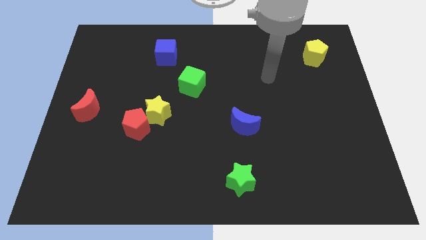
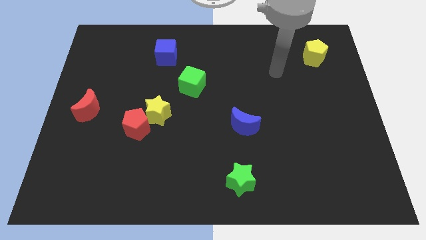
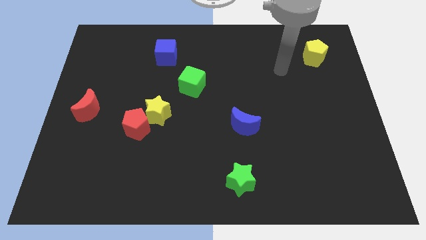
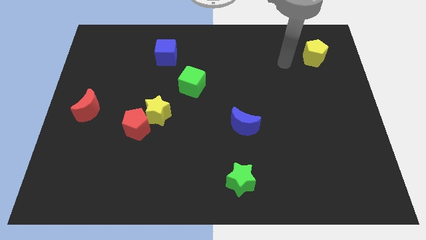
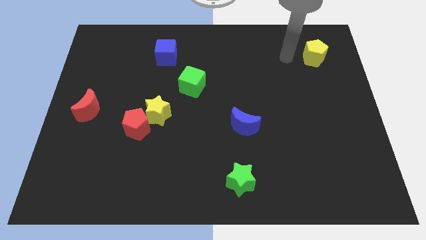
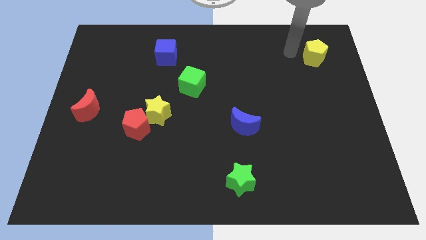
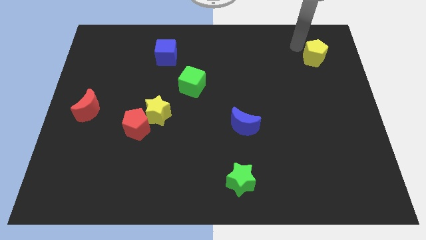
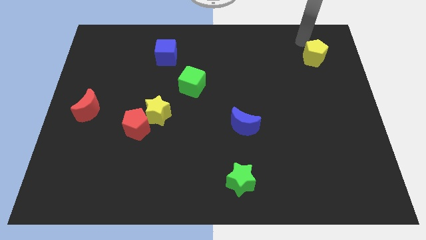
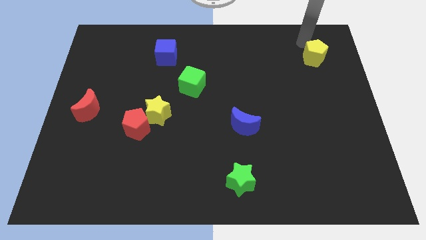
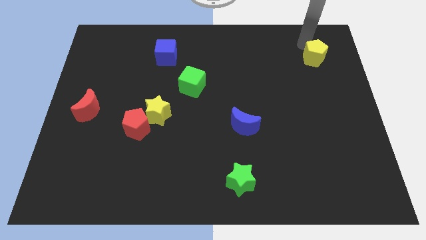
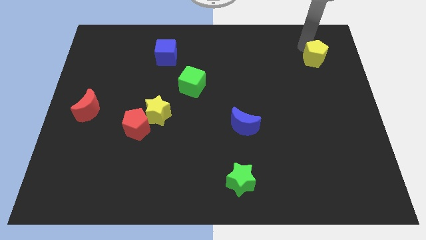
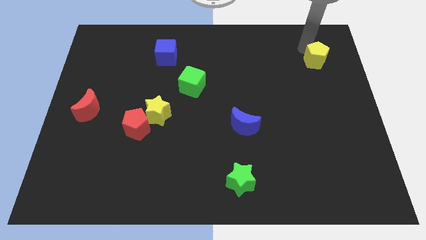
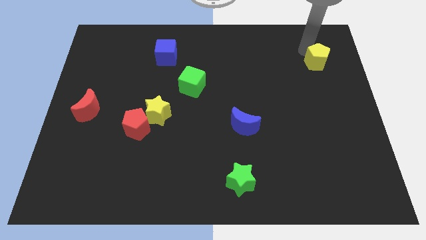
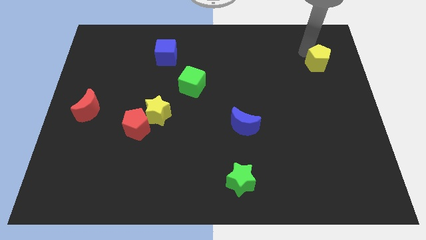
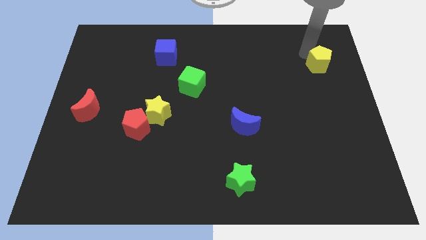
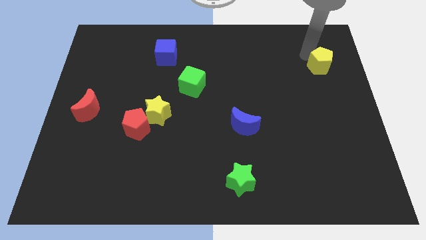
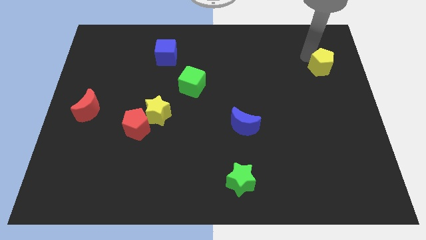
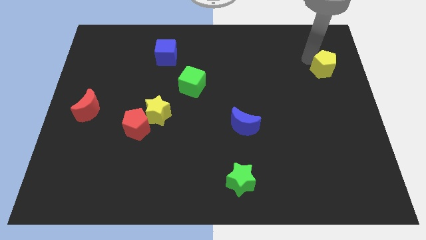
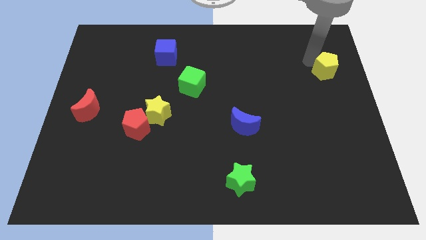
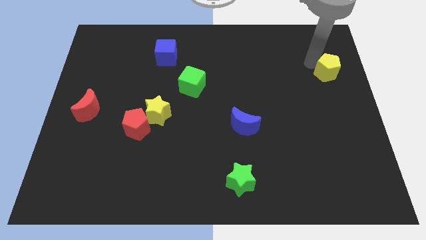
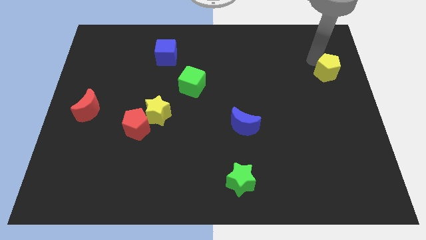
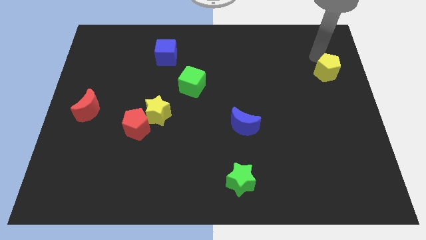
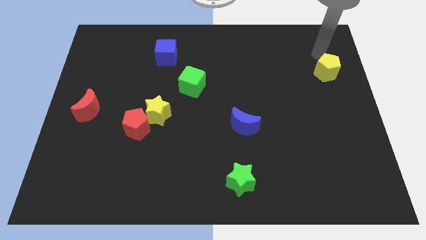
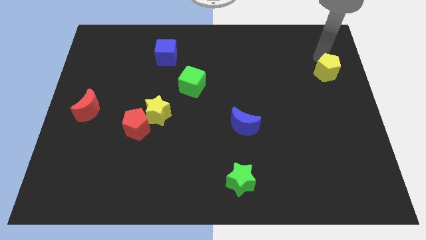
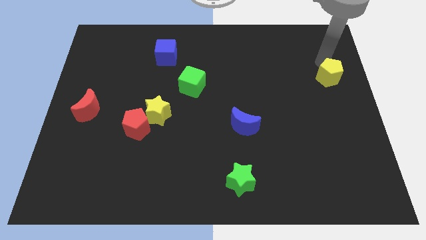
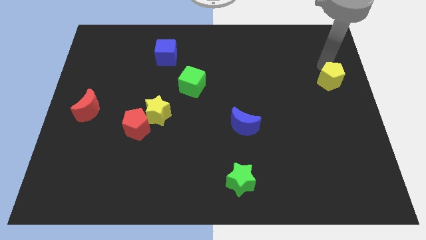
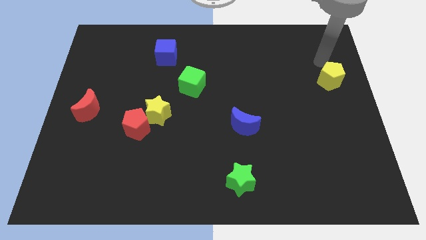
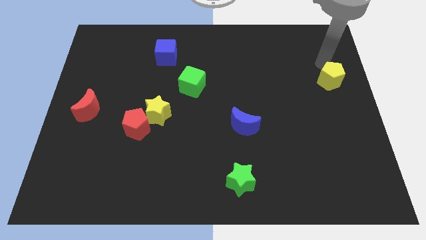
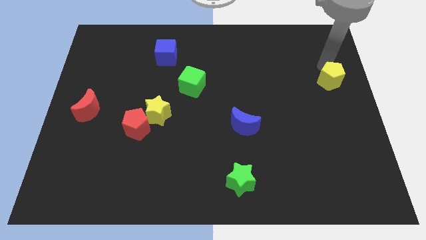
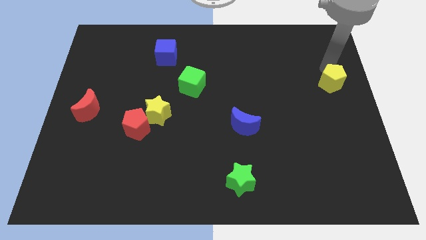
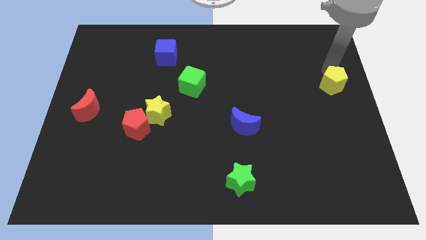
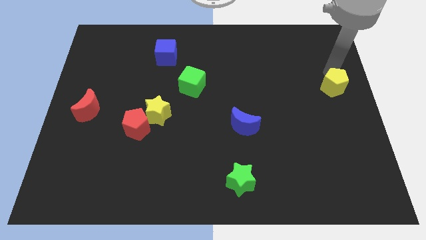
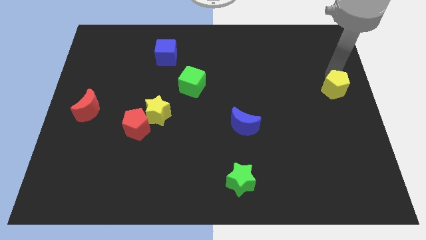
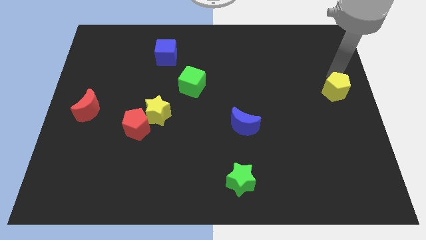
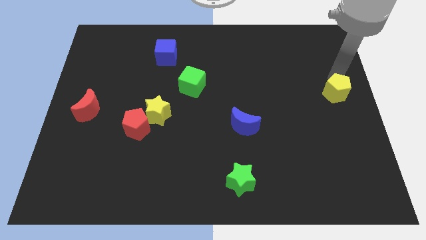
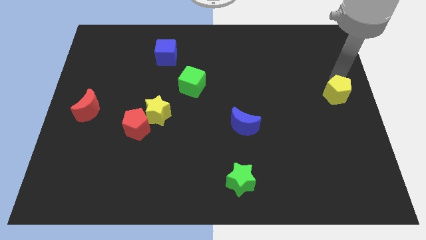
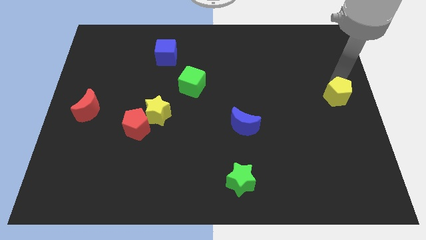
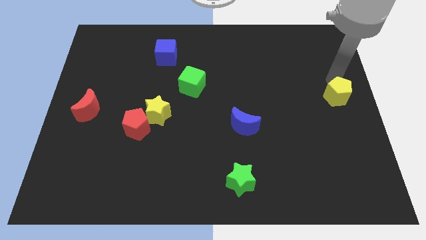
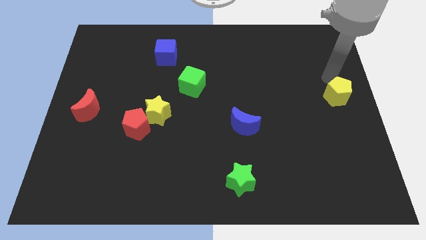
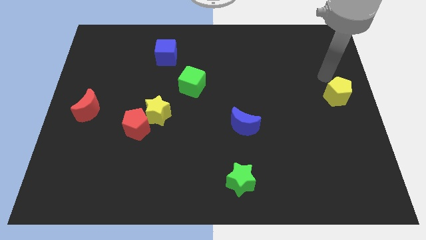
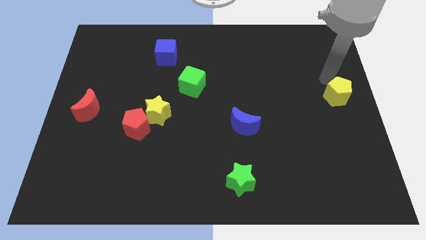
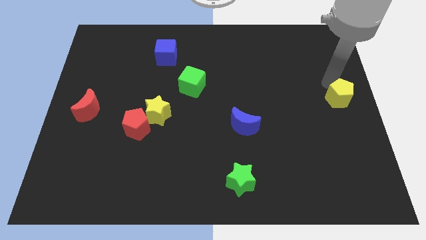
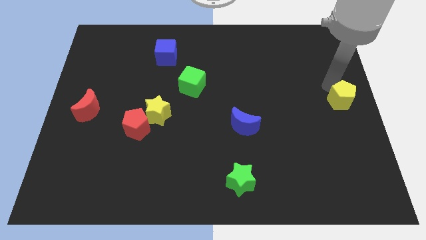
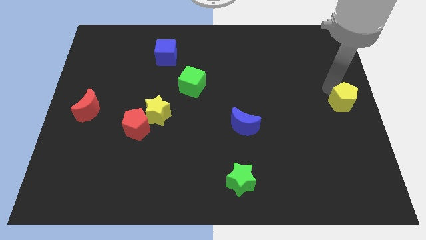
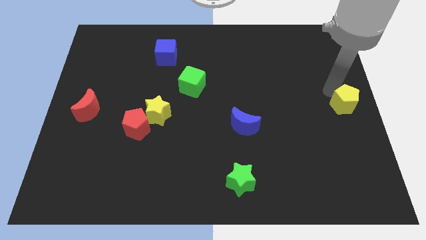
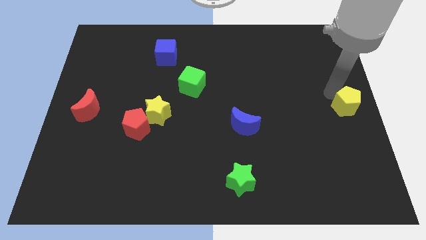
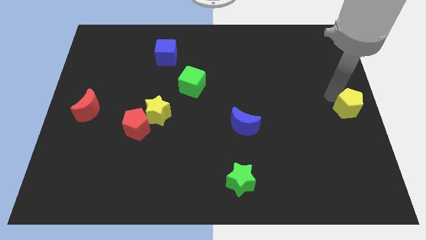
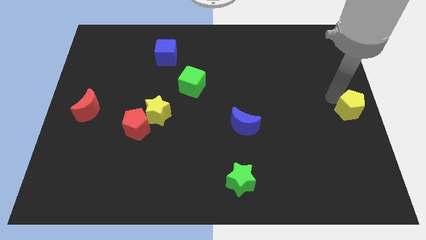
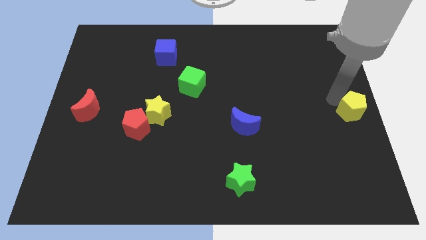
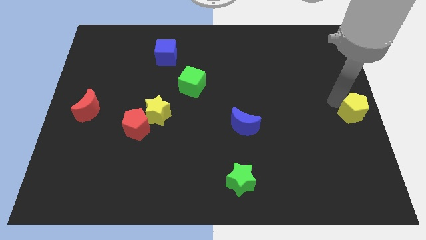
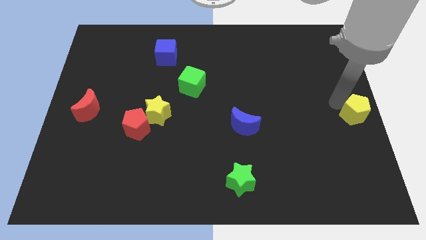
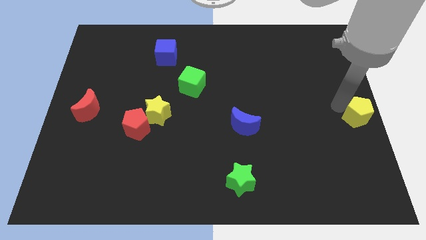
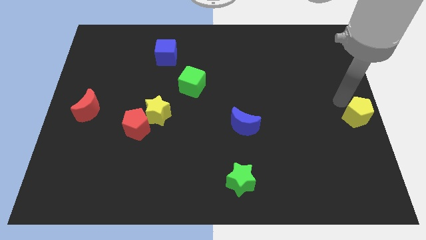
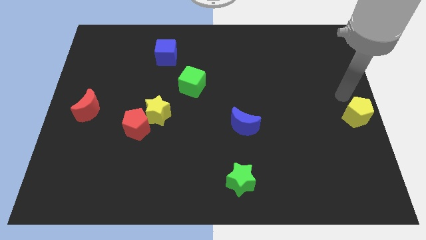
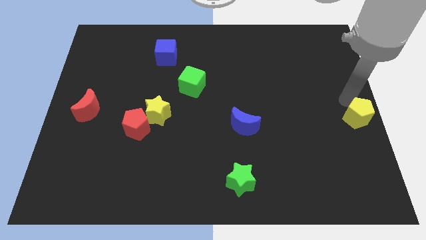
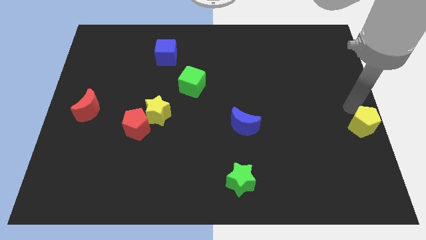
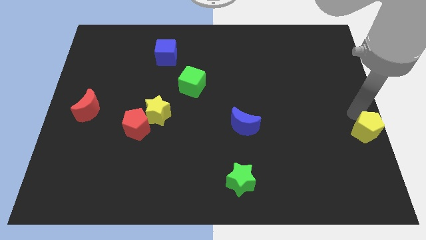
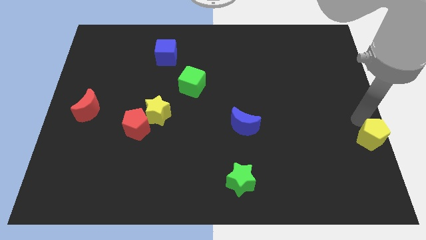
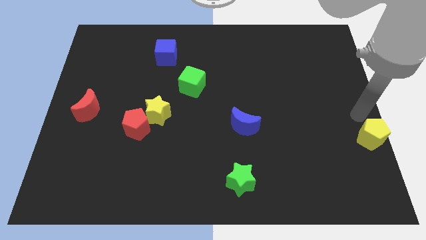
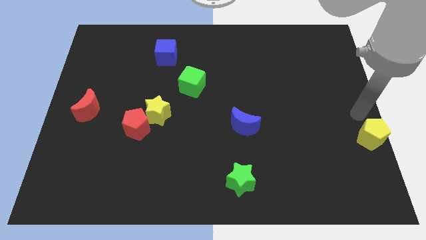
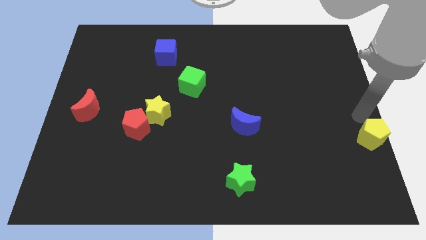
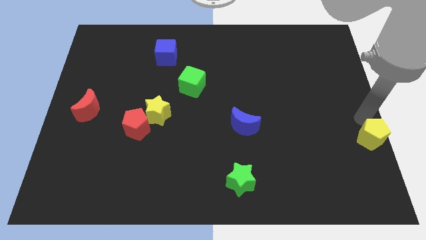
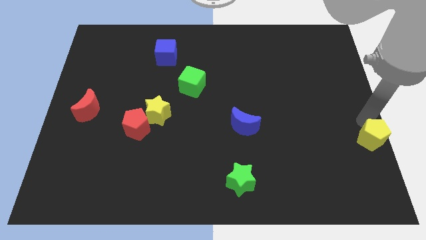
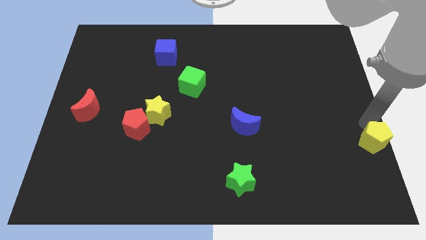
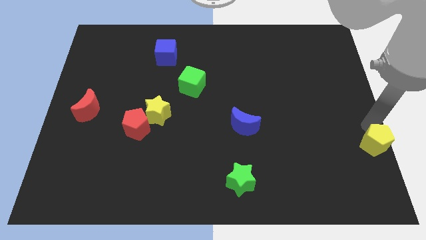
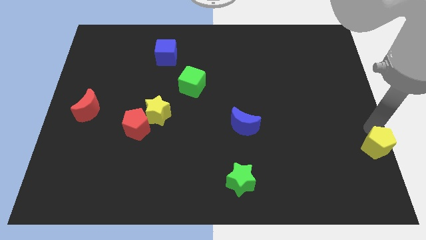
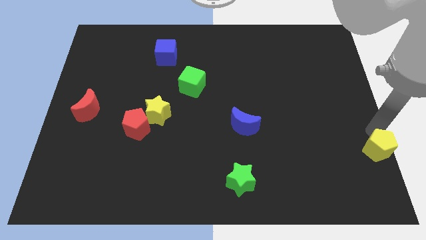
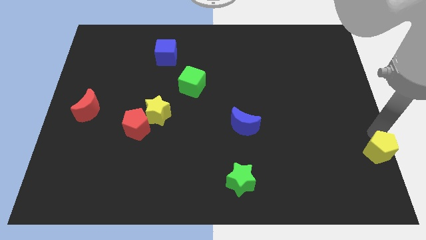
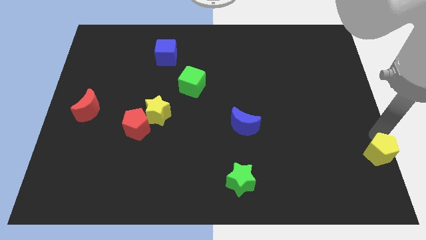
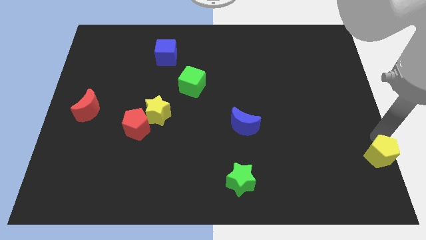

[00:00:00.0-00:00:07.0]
push the yellow pentagon to the lower right corner
